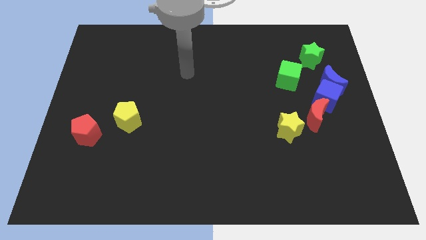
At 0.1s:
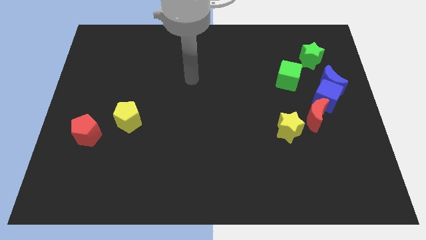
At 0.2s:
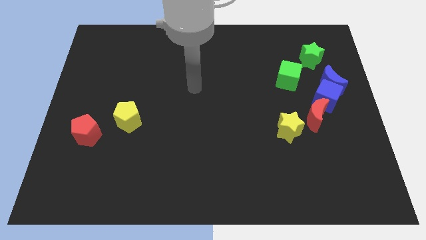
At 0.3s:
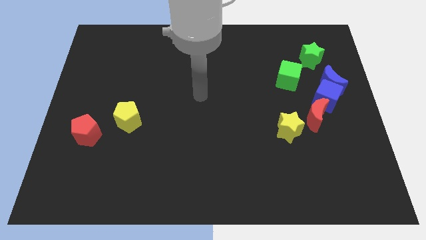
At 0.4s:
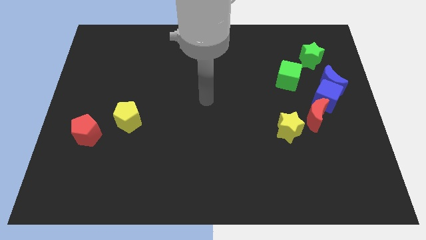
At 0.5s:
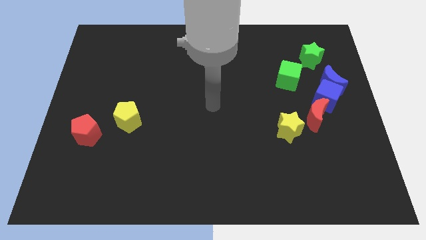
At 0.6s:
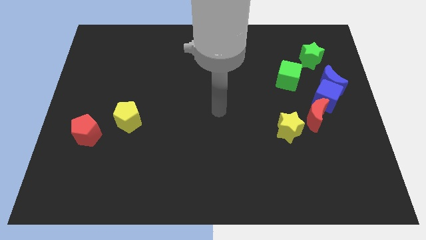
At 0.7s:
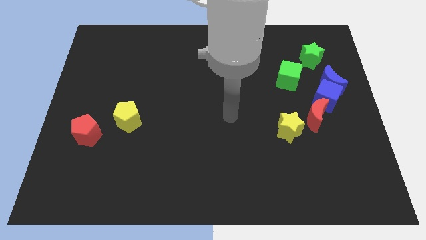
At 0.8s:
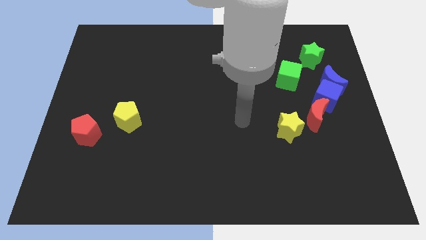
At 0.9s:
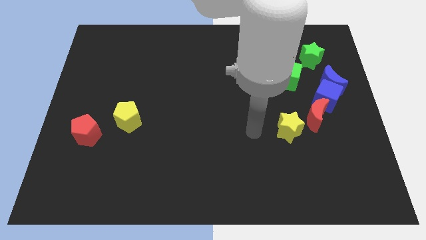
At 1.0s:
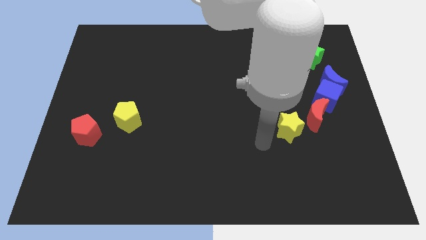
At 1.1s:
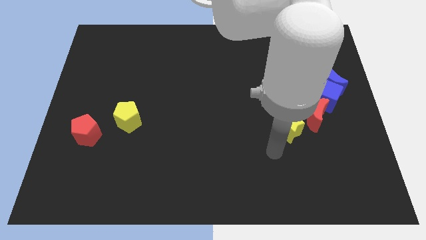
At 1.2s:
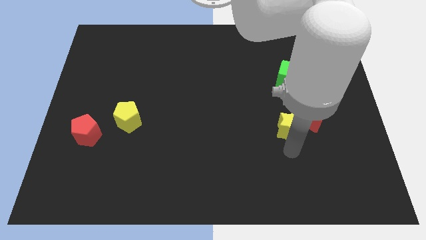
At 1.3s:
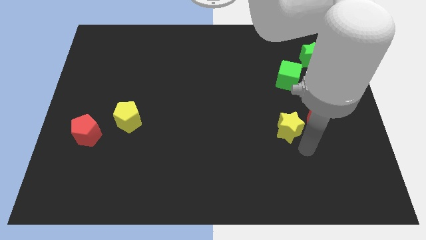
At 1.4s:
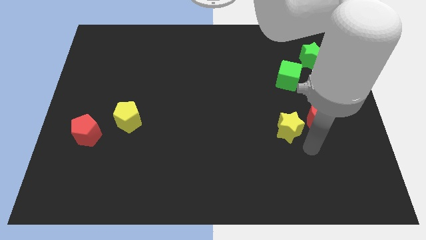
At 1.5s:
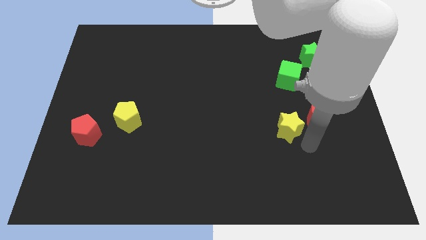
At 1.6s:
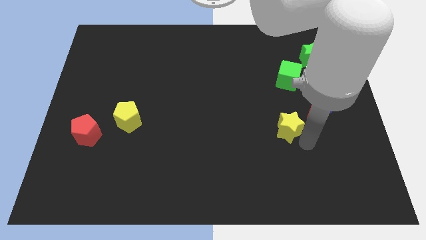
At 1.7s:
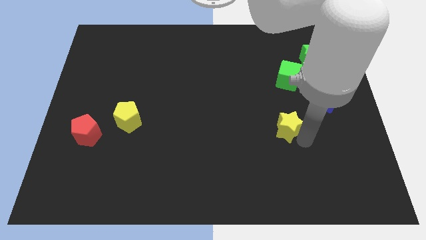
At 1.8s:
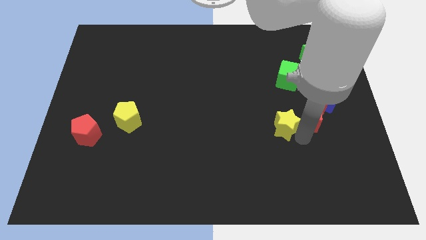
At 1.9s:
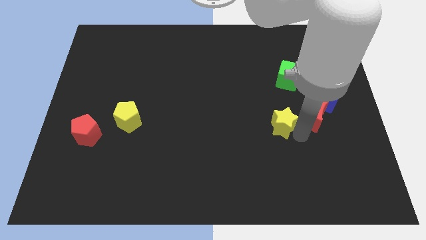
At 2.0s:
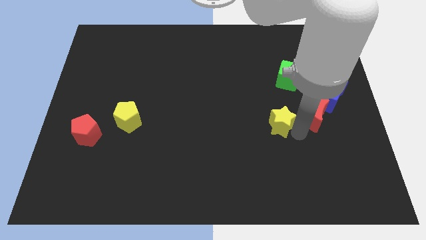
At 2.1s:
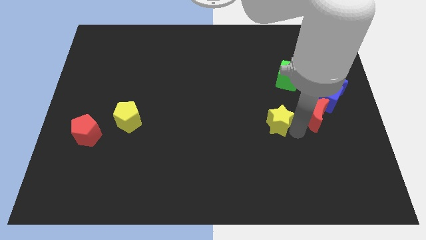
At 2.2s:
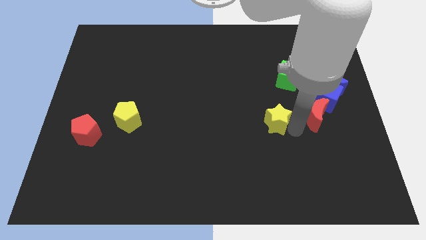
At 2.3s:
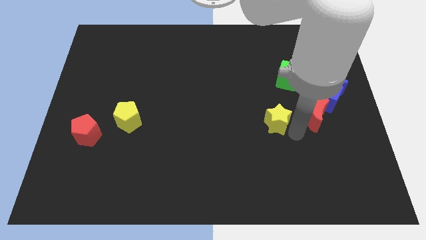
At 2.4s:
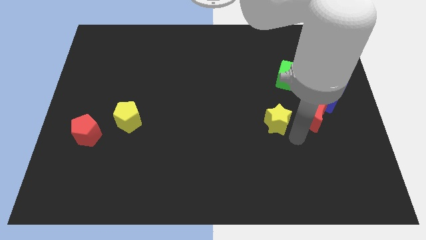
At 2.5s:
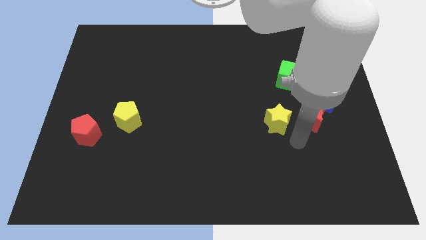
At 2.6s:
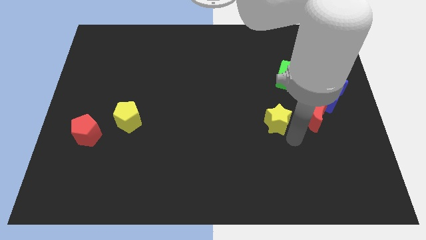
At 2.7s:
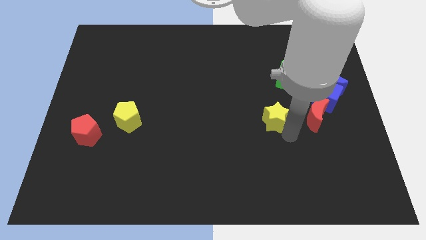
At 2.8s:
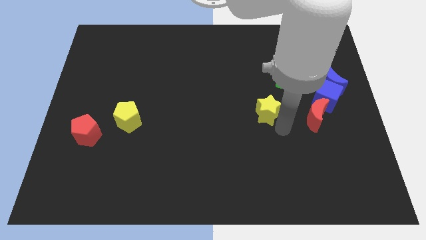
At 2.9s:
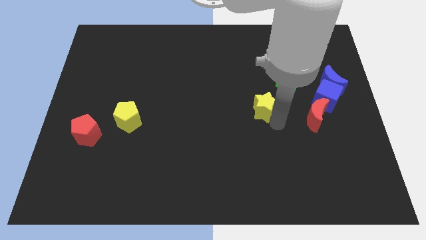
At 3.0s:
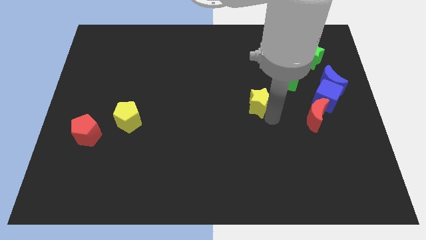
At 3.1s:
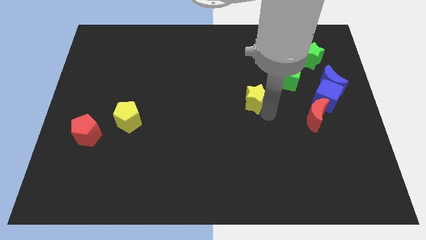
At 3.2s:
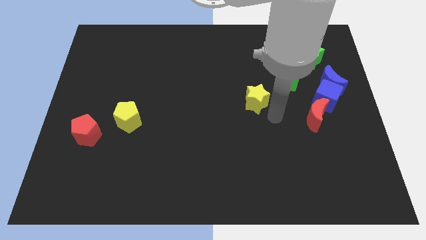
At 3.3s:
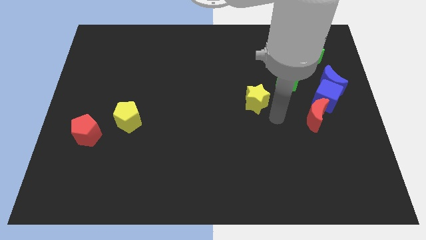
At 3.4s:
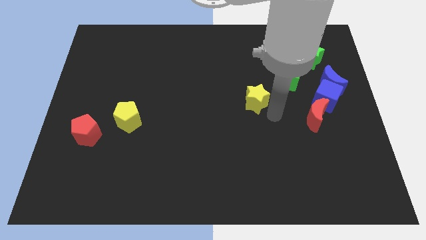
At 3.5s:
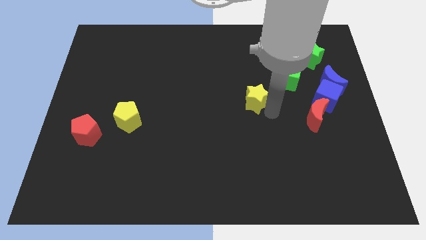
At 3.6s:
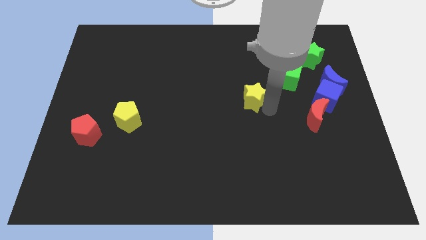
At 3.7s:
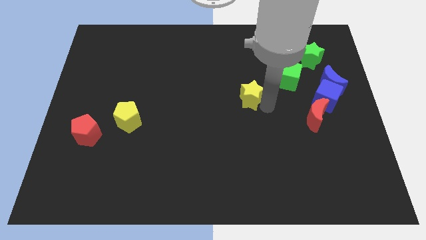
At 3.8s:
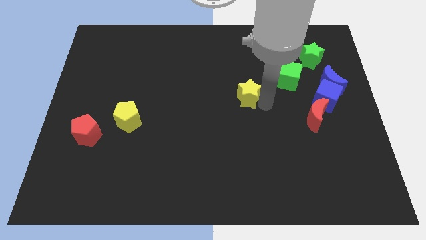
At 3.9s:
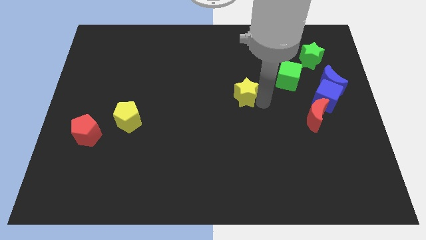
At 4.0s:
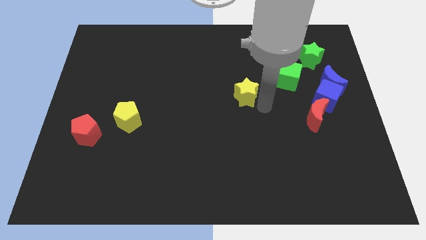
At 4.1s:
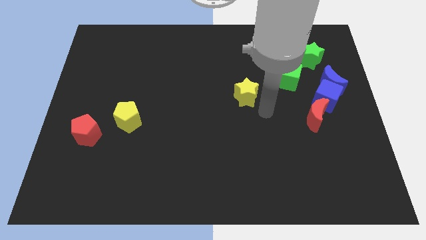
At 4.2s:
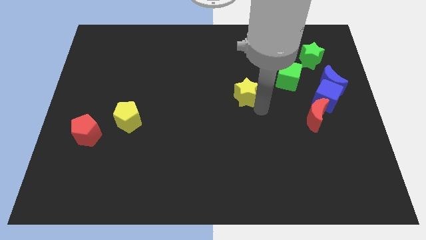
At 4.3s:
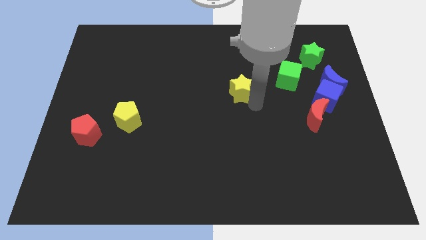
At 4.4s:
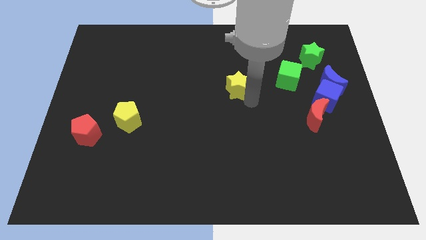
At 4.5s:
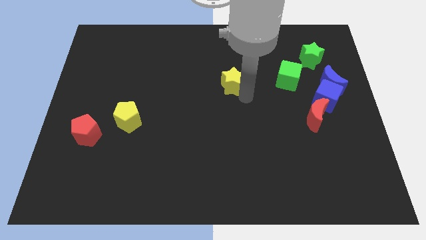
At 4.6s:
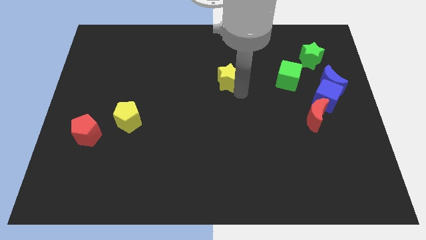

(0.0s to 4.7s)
push the yellow star diagonally up and to the left

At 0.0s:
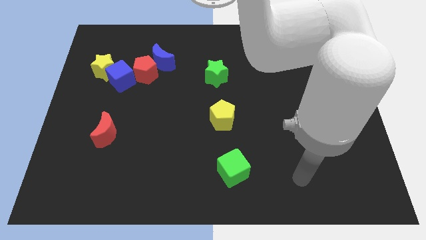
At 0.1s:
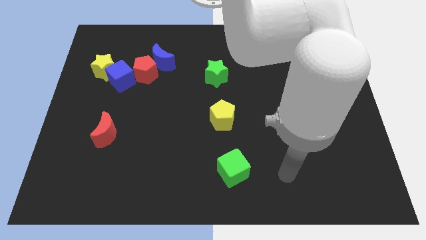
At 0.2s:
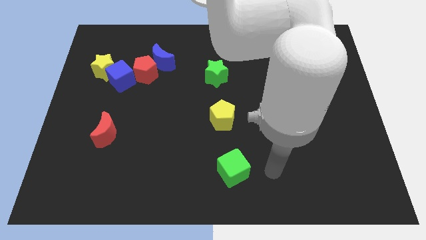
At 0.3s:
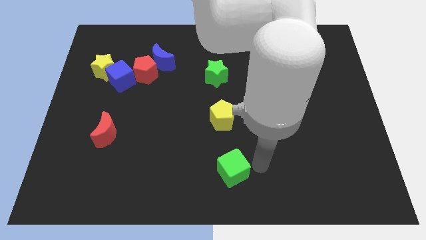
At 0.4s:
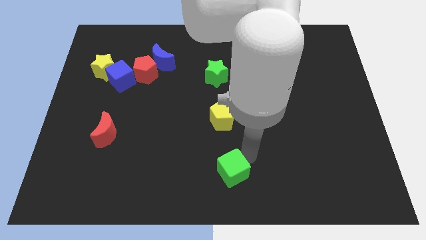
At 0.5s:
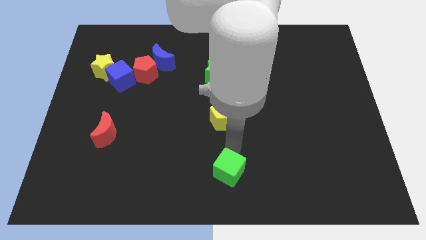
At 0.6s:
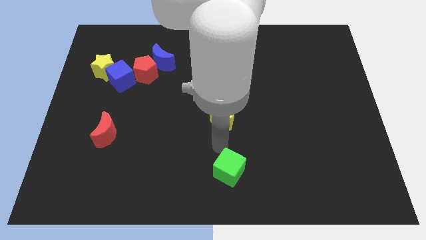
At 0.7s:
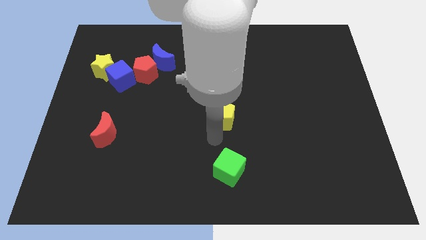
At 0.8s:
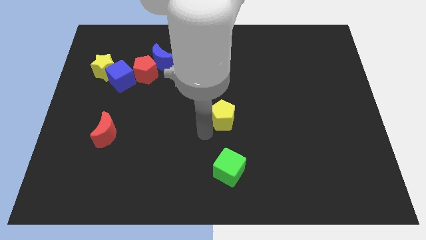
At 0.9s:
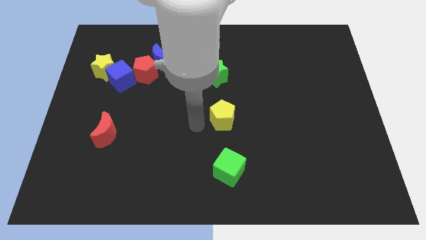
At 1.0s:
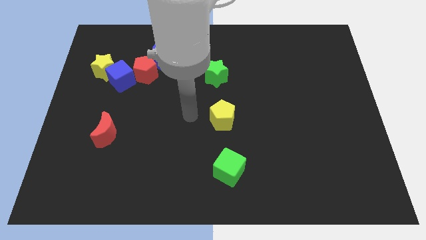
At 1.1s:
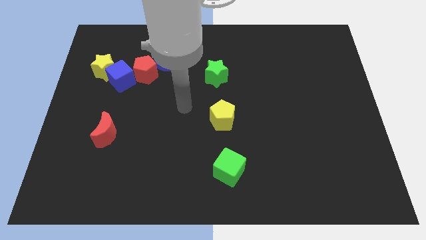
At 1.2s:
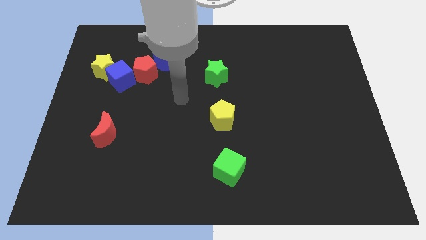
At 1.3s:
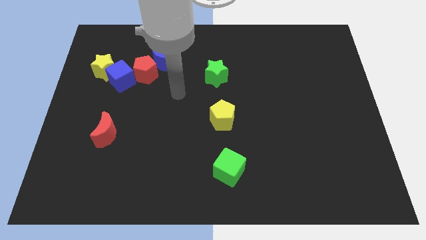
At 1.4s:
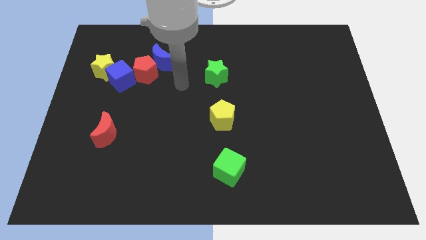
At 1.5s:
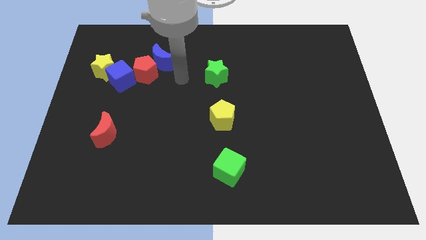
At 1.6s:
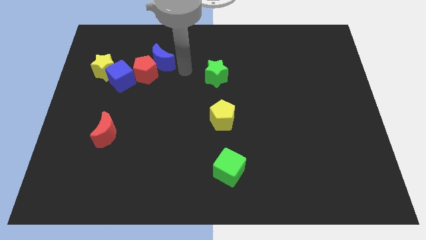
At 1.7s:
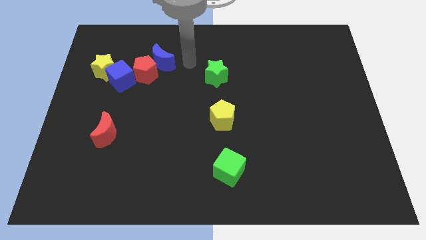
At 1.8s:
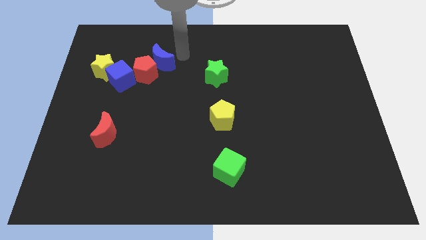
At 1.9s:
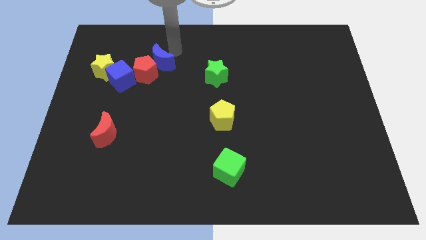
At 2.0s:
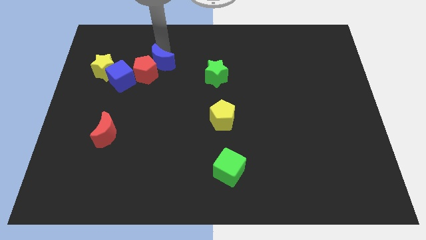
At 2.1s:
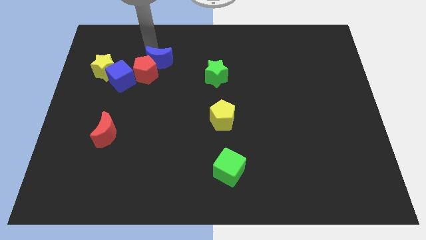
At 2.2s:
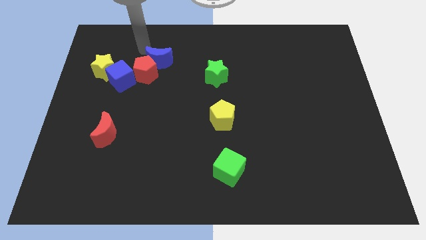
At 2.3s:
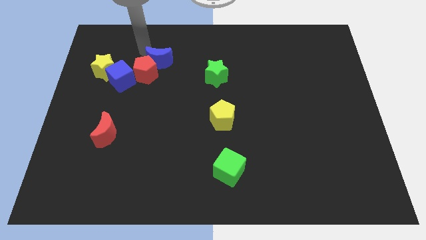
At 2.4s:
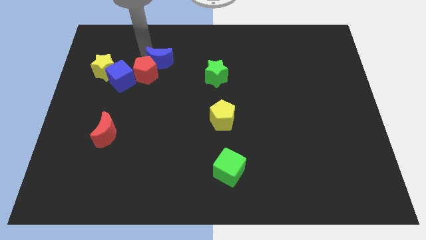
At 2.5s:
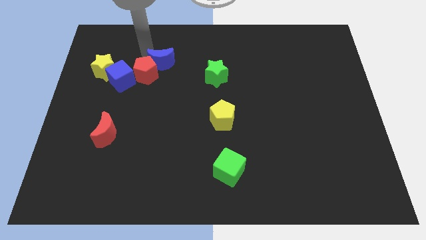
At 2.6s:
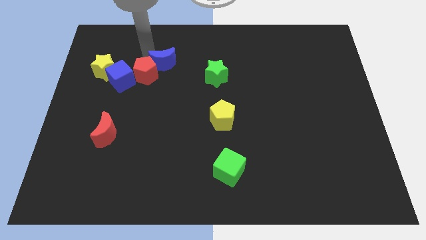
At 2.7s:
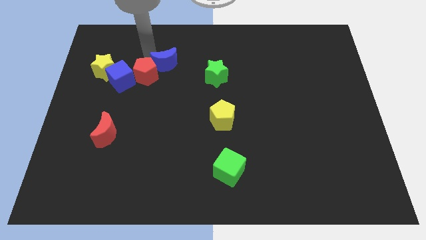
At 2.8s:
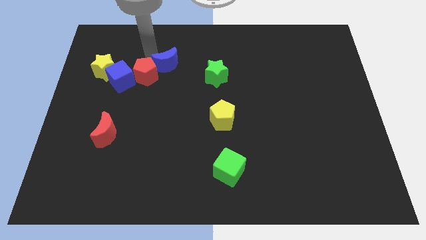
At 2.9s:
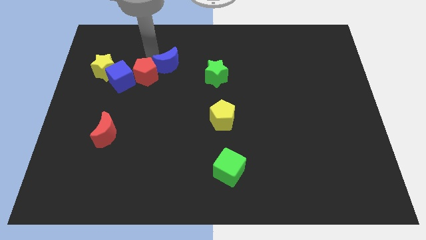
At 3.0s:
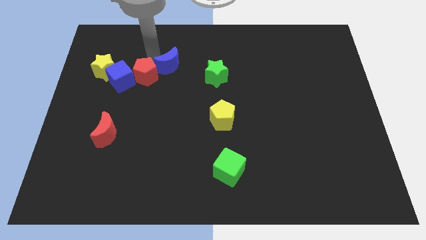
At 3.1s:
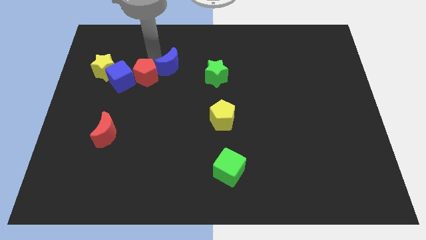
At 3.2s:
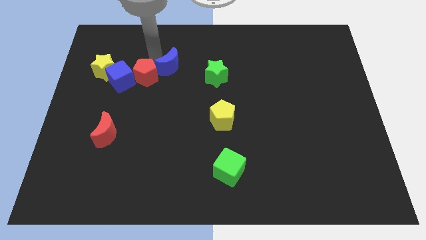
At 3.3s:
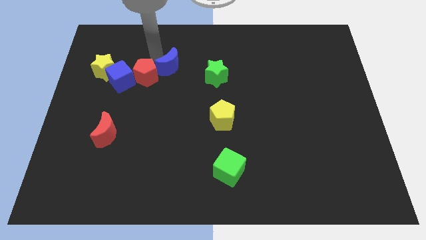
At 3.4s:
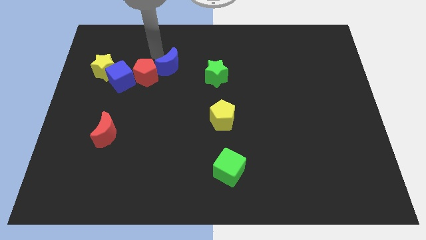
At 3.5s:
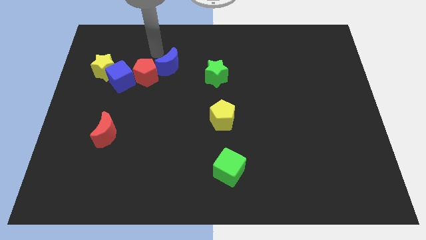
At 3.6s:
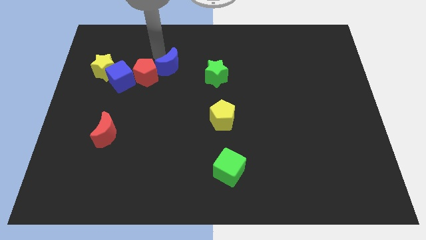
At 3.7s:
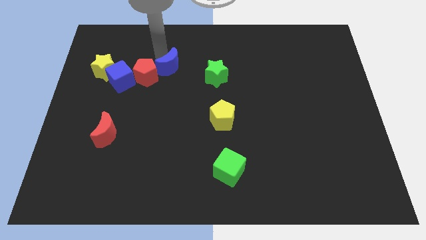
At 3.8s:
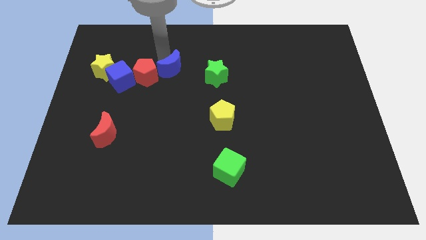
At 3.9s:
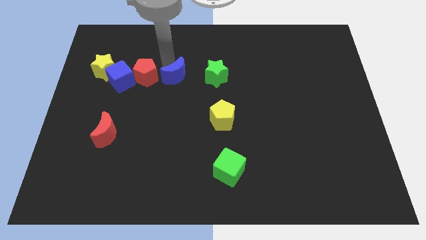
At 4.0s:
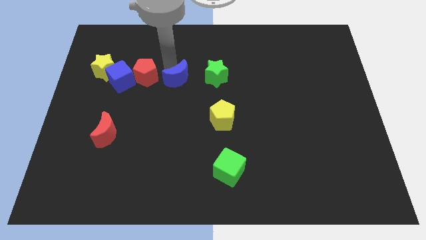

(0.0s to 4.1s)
push the blue moon downwards and then to the right a little bit
